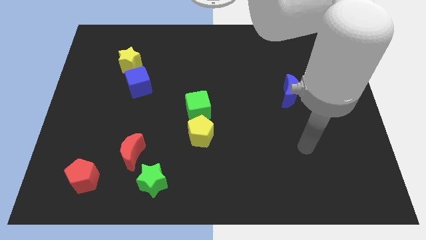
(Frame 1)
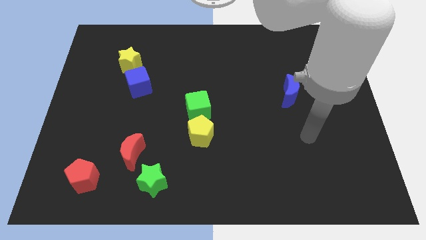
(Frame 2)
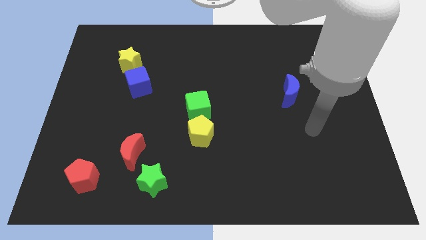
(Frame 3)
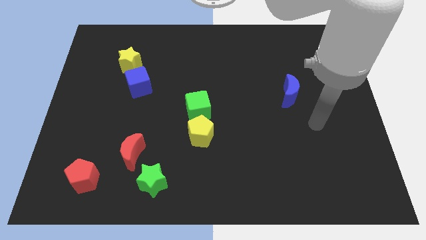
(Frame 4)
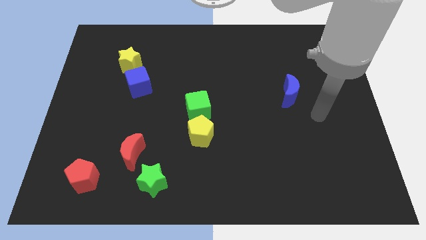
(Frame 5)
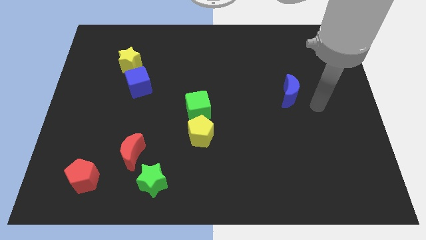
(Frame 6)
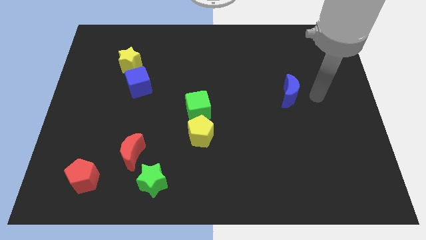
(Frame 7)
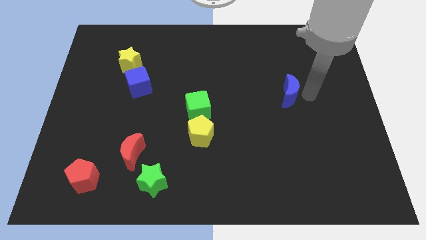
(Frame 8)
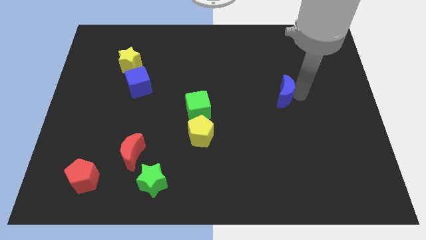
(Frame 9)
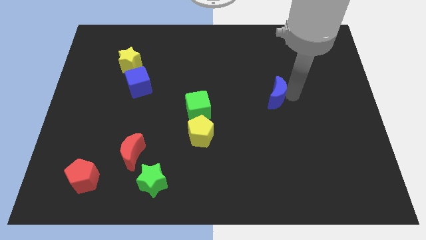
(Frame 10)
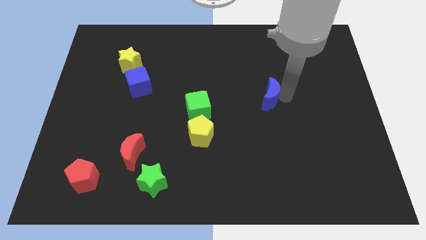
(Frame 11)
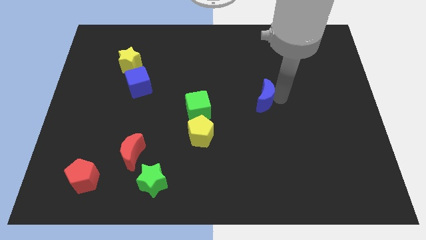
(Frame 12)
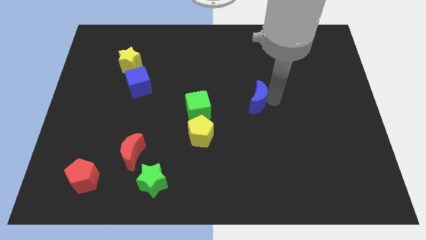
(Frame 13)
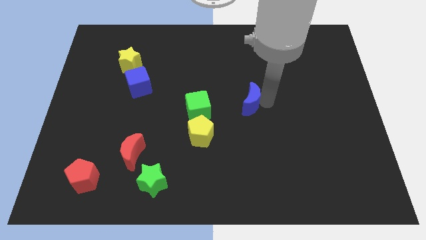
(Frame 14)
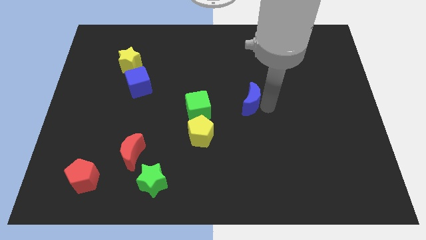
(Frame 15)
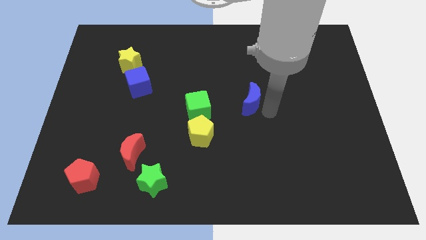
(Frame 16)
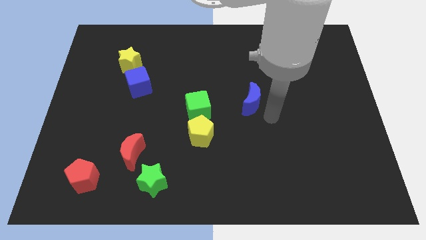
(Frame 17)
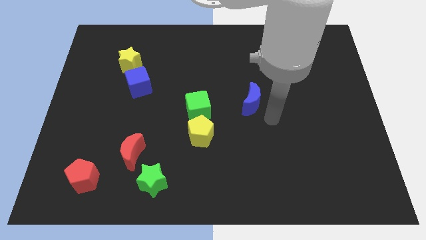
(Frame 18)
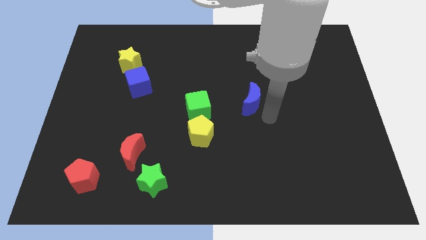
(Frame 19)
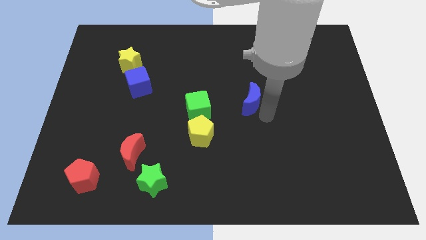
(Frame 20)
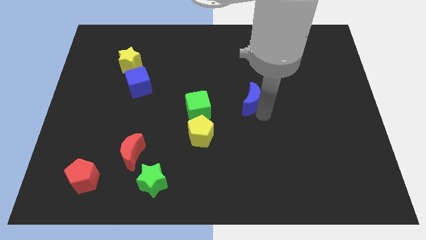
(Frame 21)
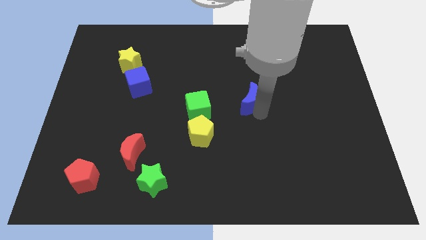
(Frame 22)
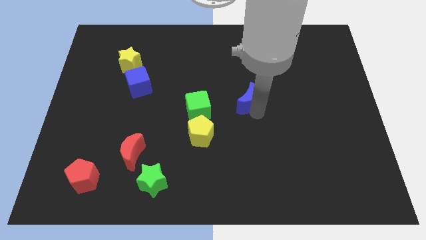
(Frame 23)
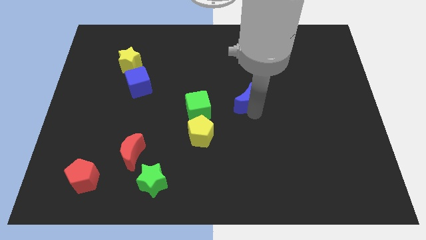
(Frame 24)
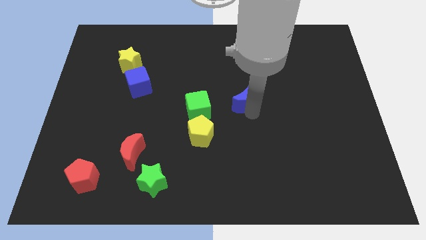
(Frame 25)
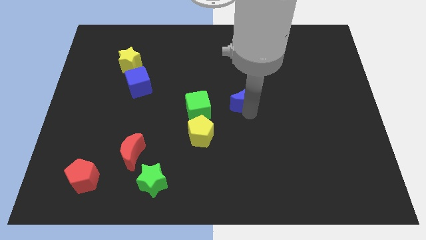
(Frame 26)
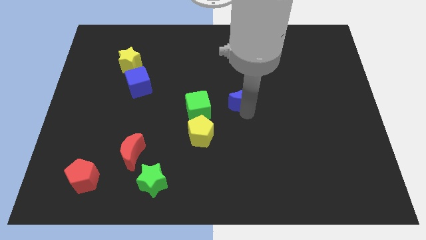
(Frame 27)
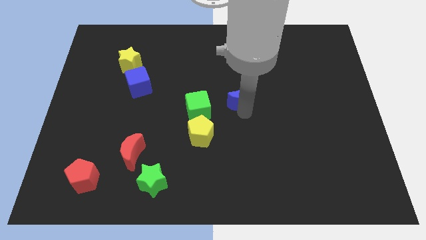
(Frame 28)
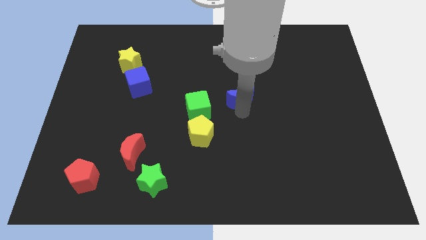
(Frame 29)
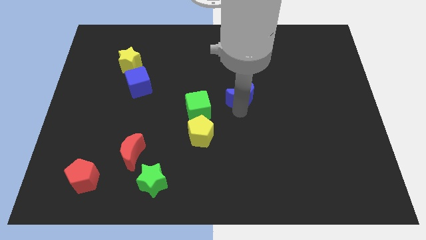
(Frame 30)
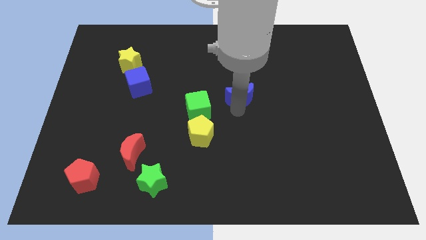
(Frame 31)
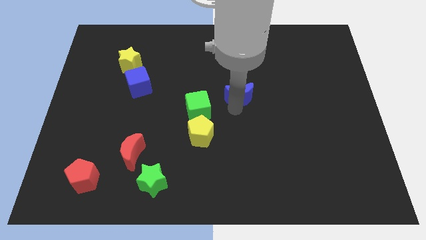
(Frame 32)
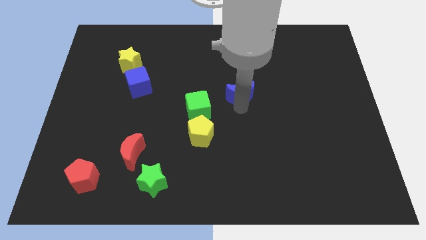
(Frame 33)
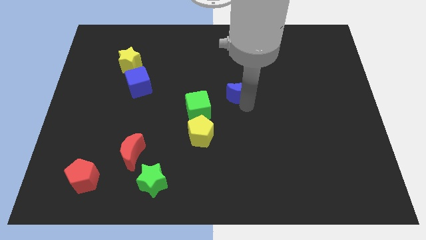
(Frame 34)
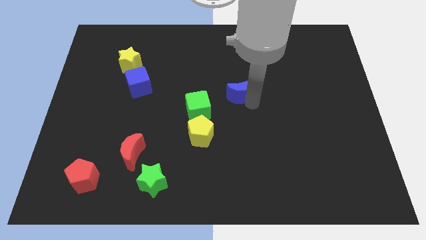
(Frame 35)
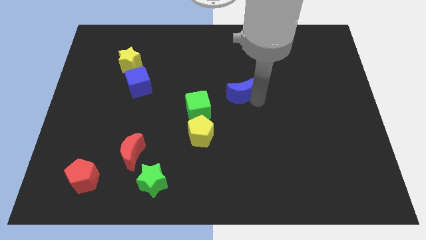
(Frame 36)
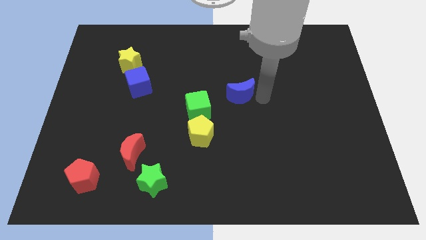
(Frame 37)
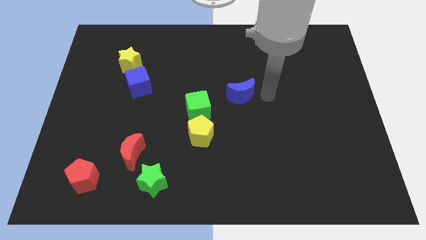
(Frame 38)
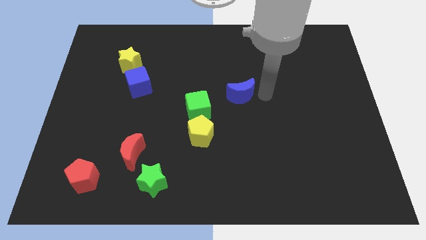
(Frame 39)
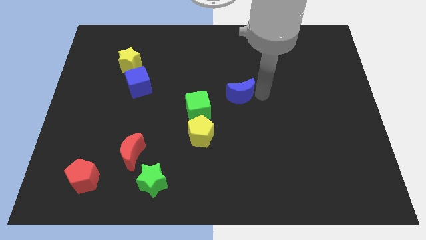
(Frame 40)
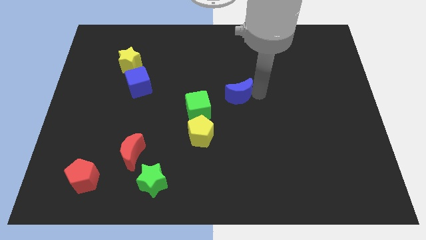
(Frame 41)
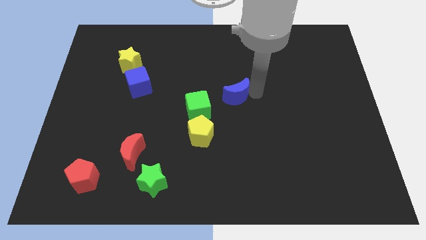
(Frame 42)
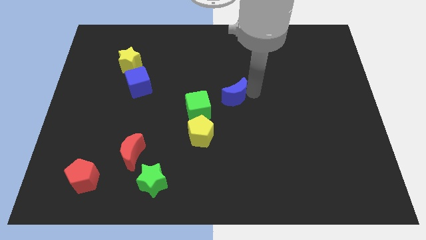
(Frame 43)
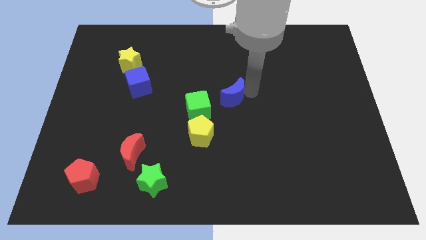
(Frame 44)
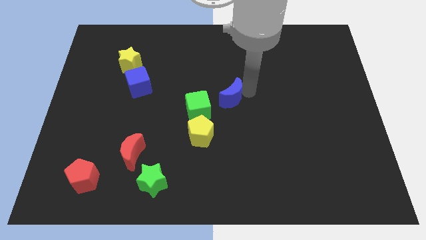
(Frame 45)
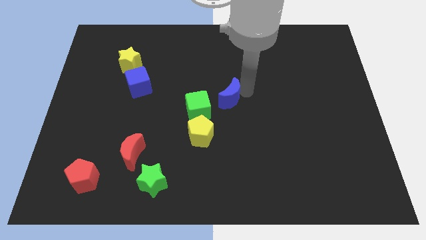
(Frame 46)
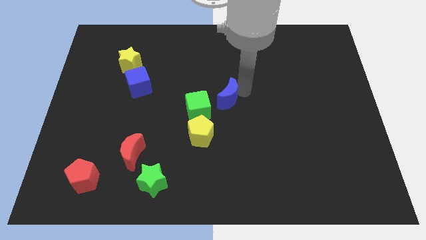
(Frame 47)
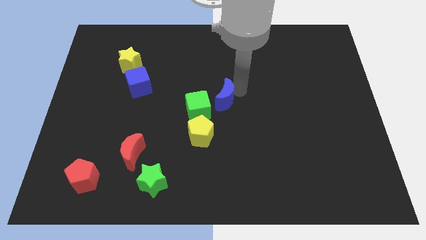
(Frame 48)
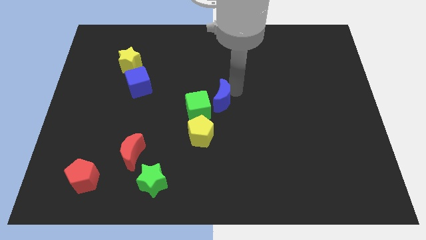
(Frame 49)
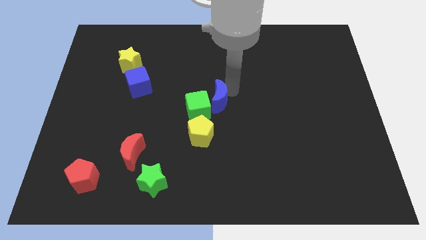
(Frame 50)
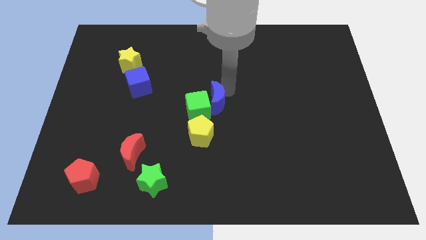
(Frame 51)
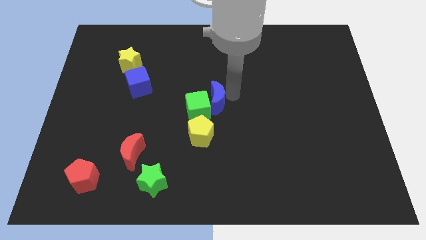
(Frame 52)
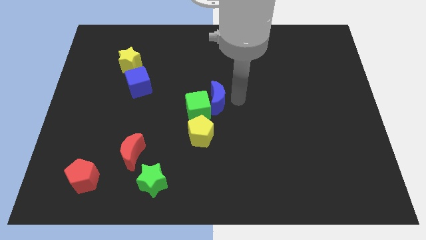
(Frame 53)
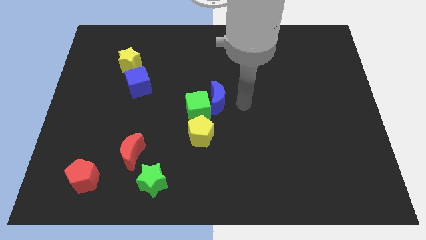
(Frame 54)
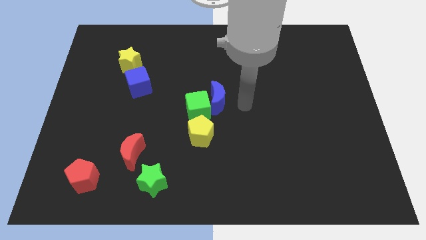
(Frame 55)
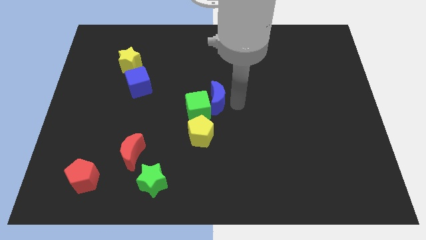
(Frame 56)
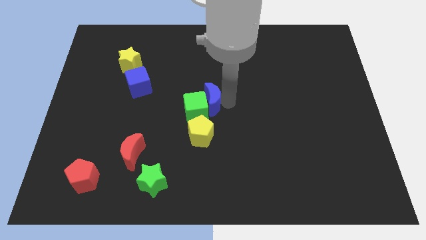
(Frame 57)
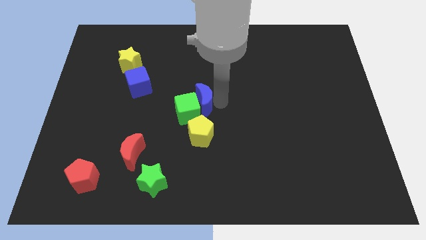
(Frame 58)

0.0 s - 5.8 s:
slide the blue moon to the left

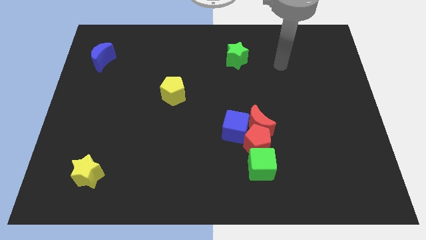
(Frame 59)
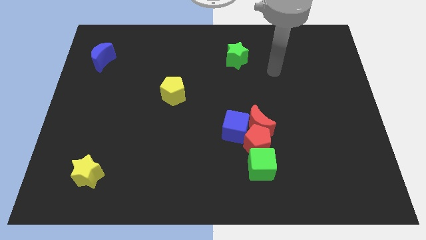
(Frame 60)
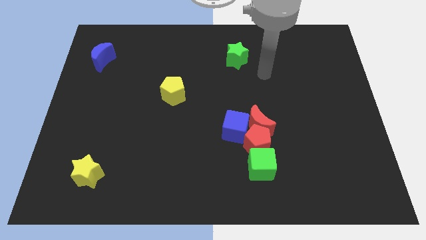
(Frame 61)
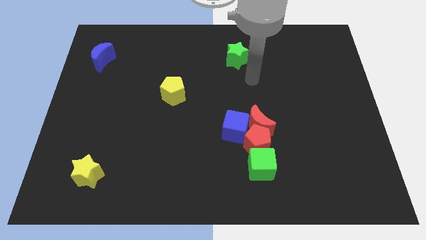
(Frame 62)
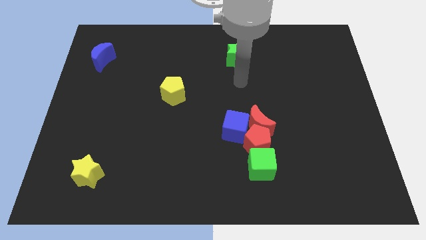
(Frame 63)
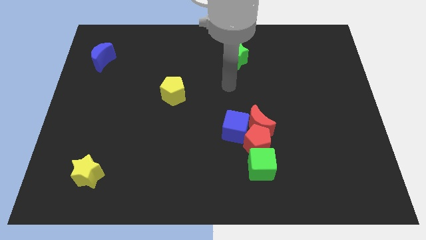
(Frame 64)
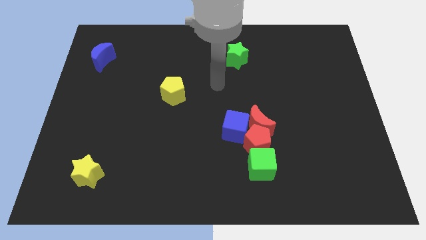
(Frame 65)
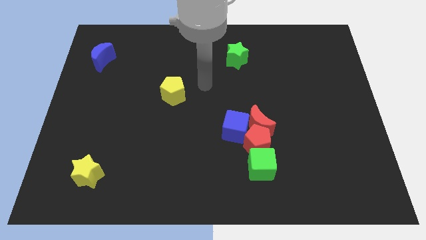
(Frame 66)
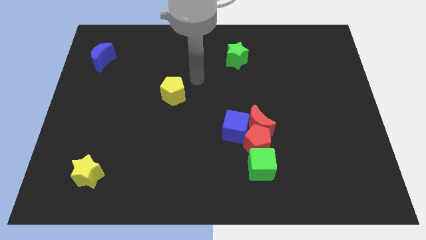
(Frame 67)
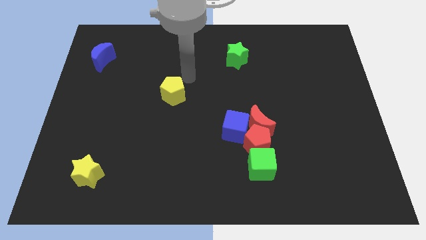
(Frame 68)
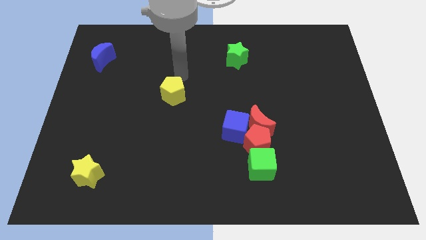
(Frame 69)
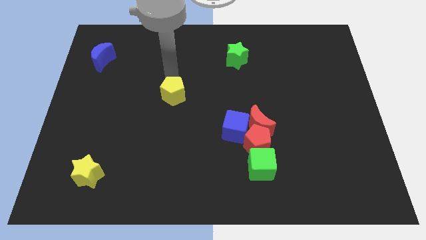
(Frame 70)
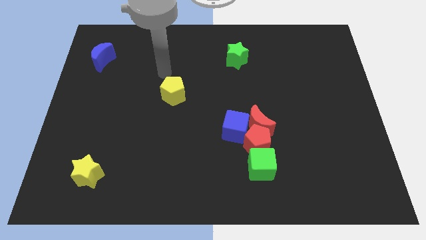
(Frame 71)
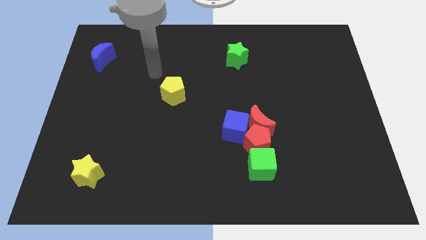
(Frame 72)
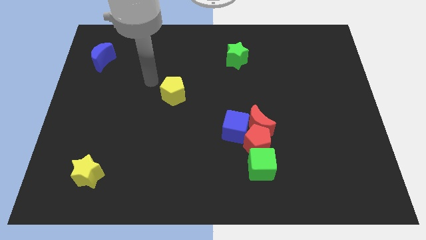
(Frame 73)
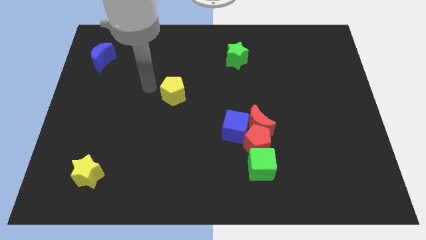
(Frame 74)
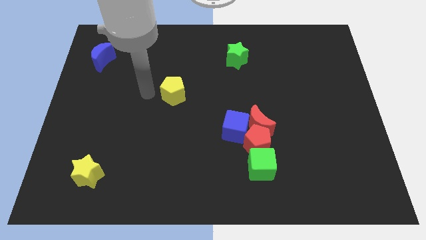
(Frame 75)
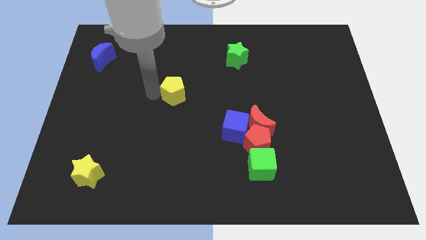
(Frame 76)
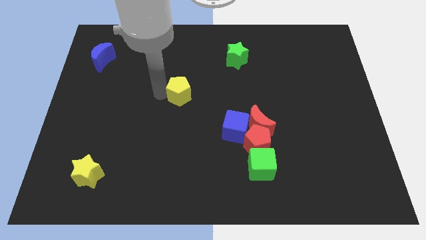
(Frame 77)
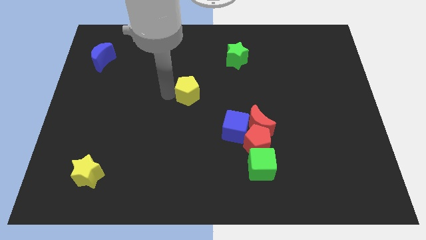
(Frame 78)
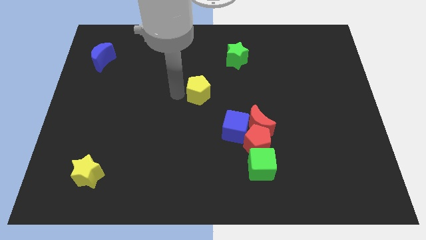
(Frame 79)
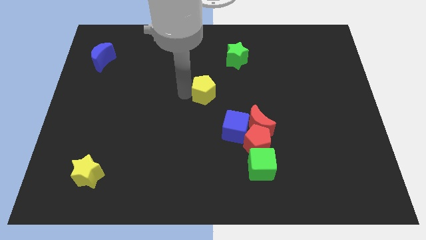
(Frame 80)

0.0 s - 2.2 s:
move the yellow pentagon right somewhat
